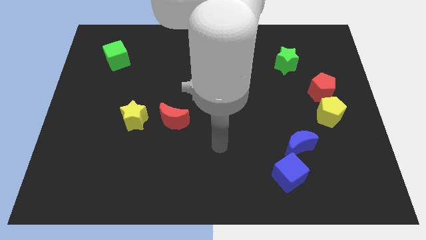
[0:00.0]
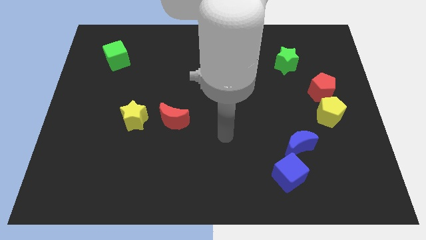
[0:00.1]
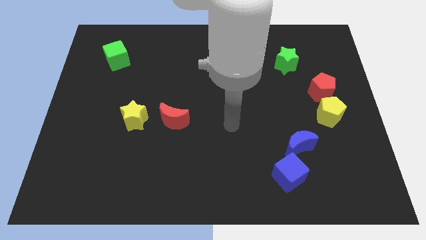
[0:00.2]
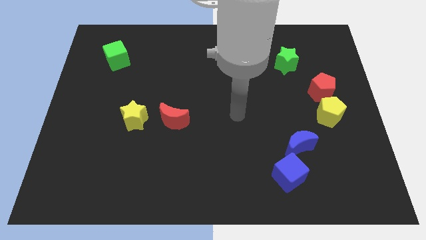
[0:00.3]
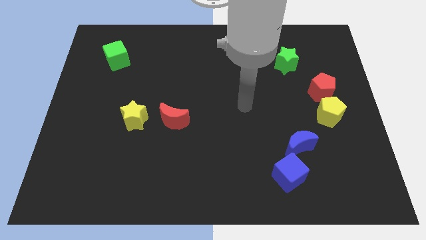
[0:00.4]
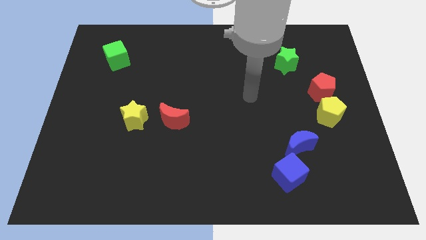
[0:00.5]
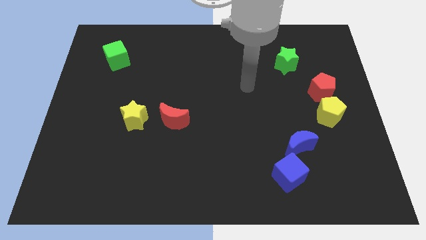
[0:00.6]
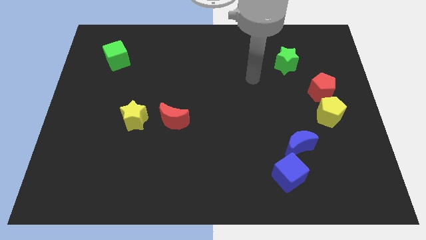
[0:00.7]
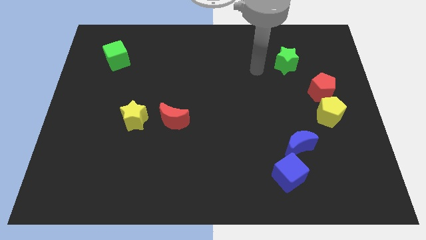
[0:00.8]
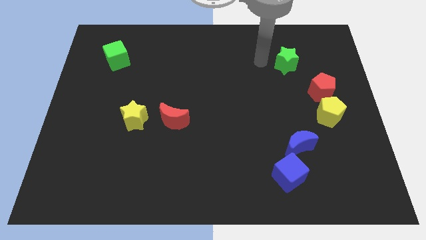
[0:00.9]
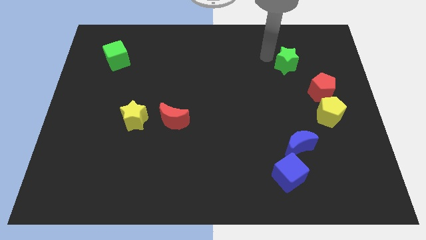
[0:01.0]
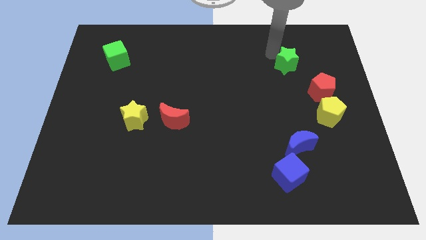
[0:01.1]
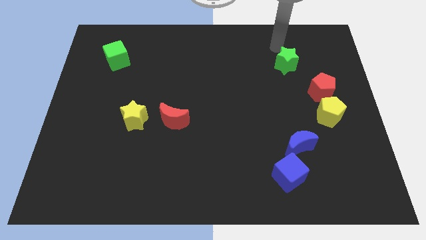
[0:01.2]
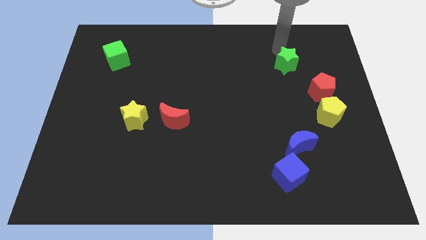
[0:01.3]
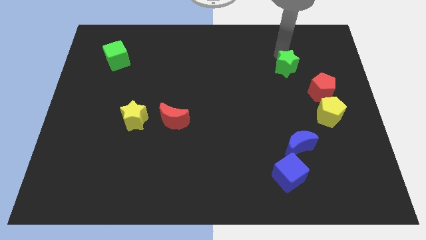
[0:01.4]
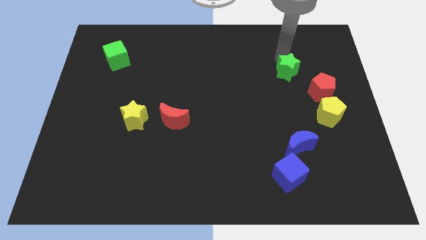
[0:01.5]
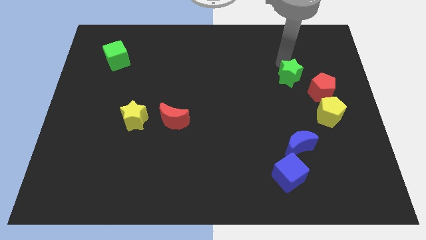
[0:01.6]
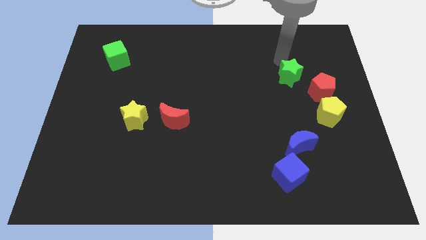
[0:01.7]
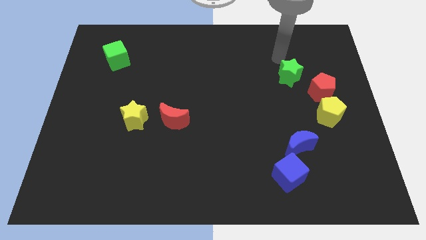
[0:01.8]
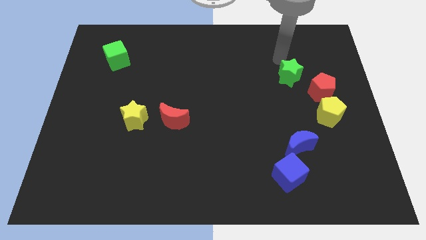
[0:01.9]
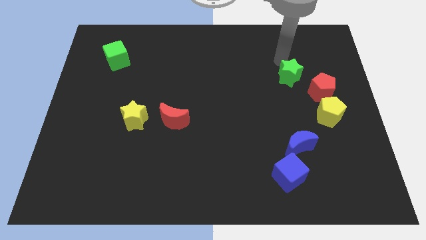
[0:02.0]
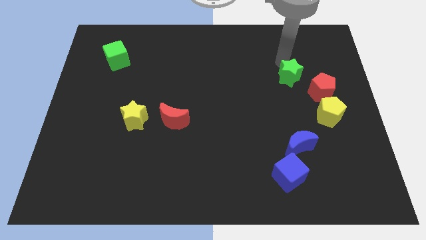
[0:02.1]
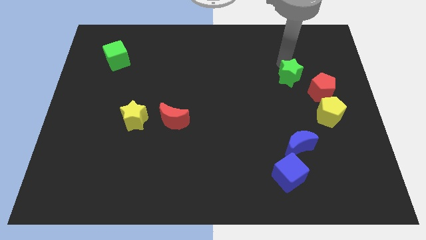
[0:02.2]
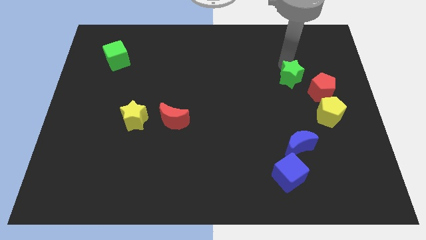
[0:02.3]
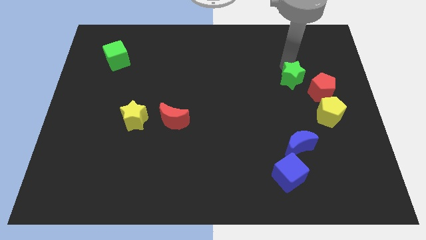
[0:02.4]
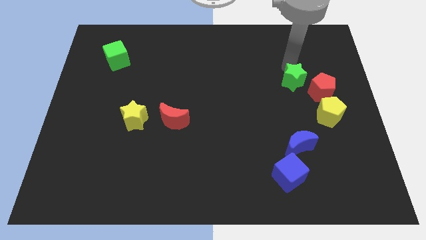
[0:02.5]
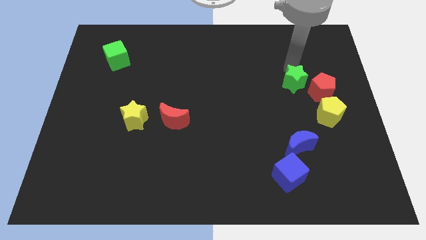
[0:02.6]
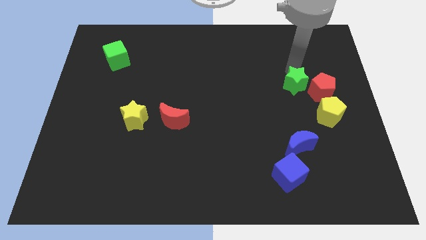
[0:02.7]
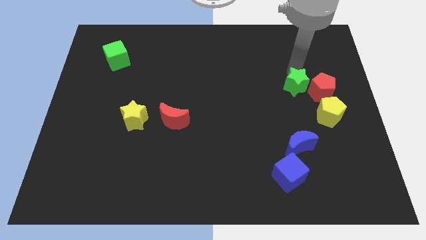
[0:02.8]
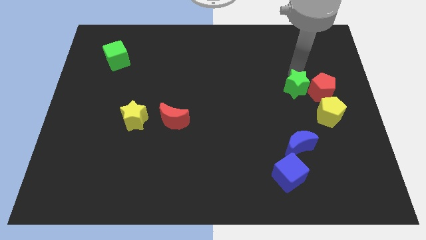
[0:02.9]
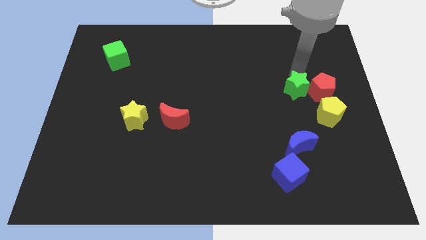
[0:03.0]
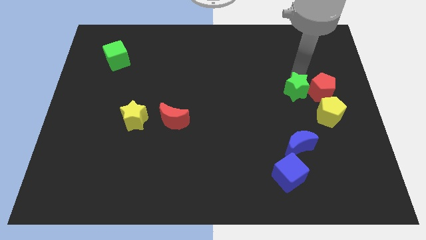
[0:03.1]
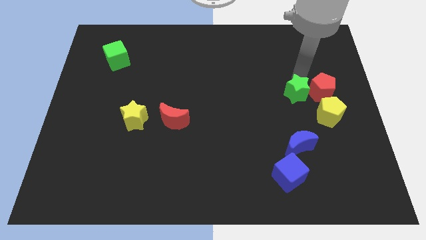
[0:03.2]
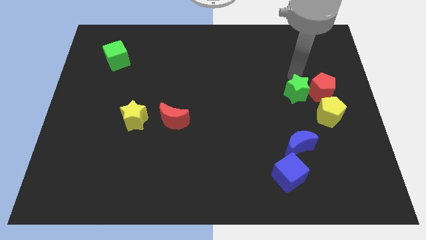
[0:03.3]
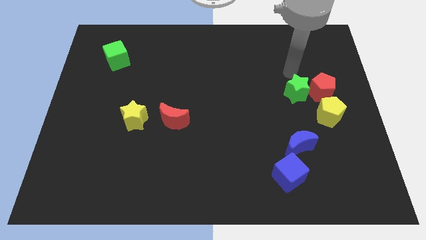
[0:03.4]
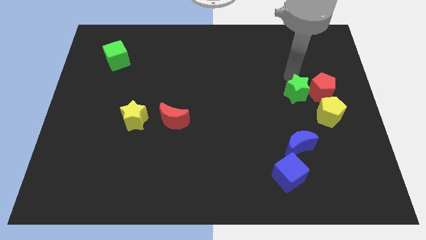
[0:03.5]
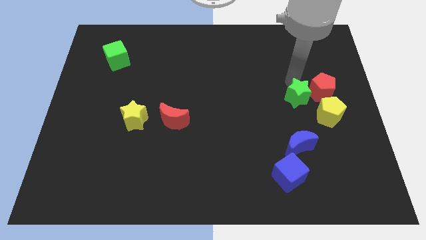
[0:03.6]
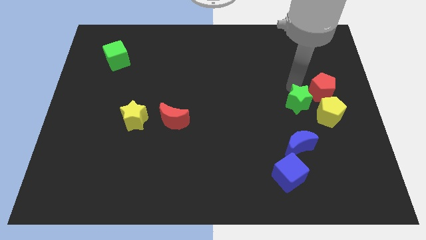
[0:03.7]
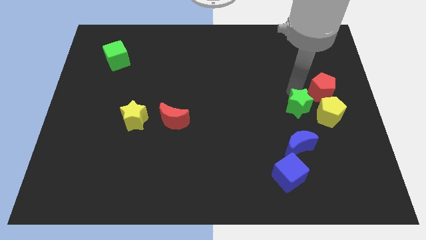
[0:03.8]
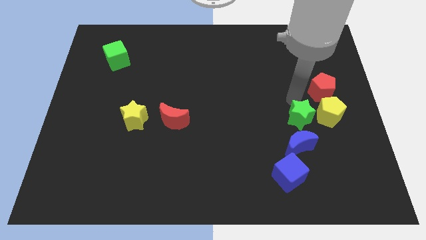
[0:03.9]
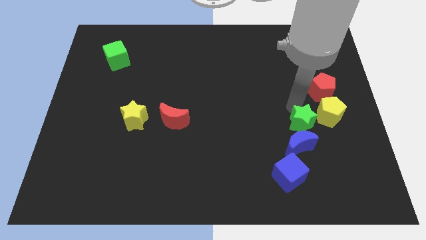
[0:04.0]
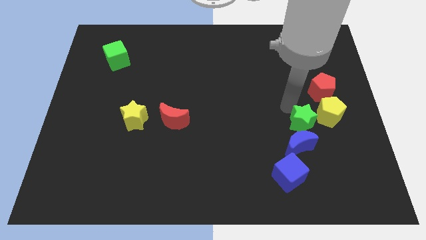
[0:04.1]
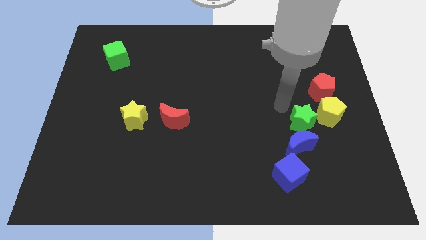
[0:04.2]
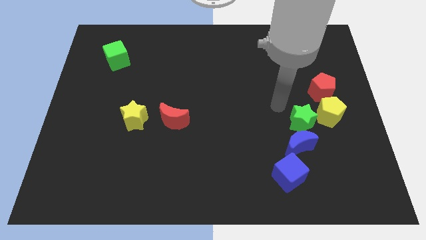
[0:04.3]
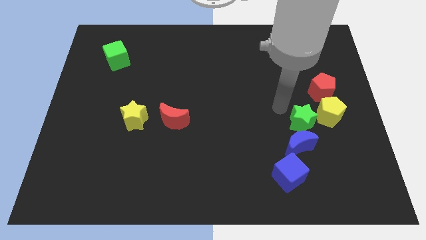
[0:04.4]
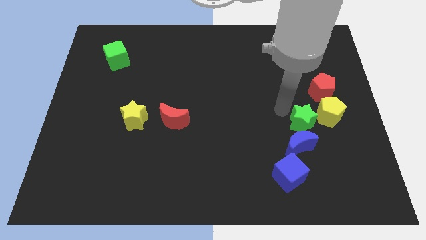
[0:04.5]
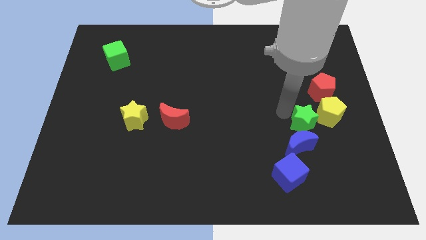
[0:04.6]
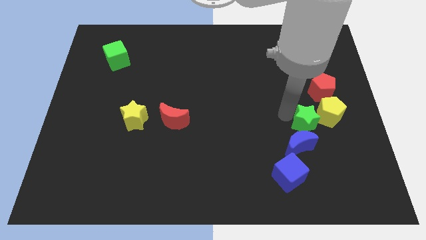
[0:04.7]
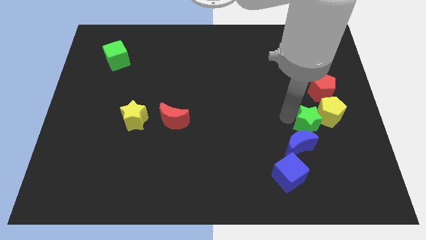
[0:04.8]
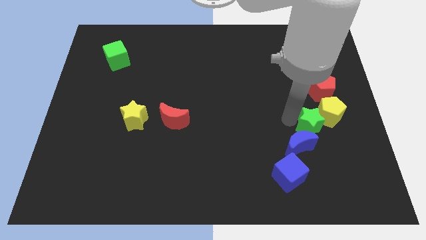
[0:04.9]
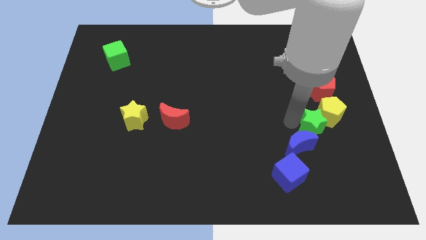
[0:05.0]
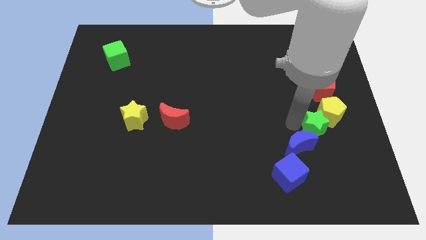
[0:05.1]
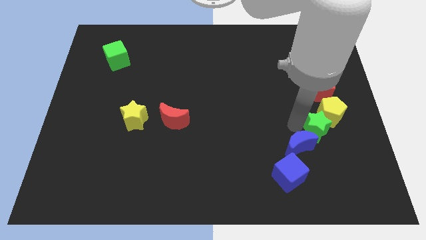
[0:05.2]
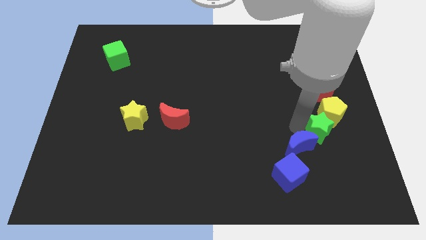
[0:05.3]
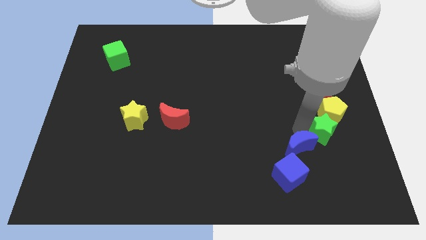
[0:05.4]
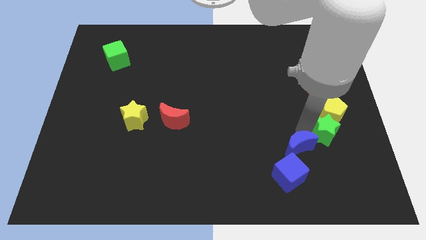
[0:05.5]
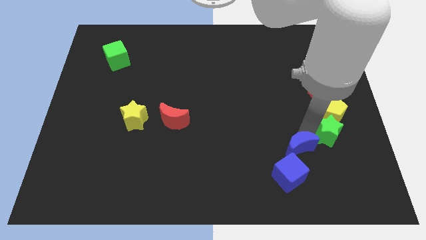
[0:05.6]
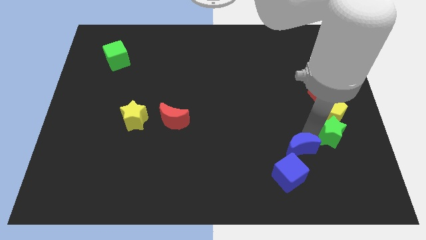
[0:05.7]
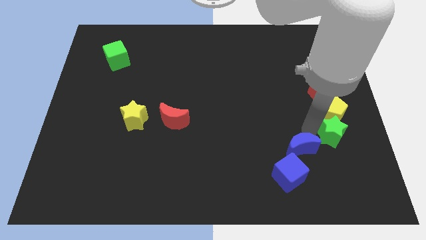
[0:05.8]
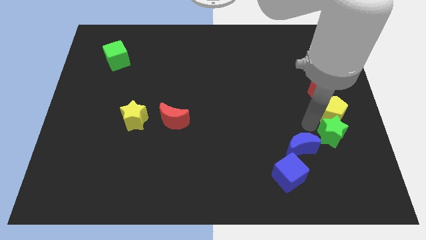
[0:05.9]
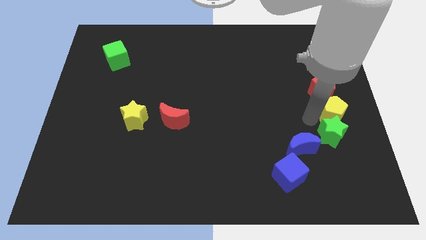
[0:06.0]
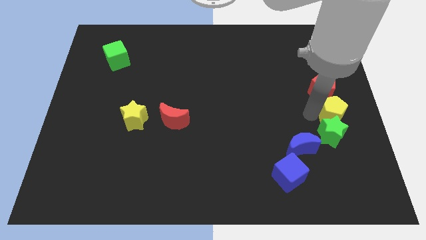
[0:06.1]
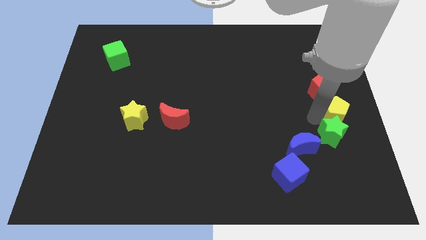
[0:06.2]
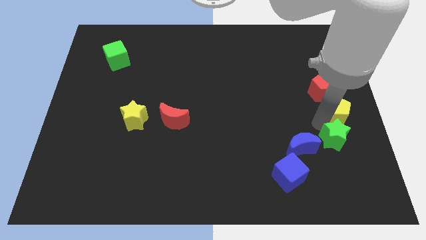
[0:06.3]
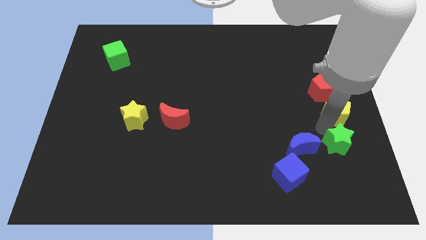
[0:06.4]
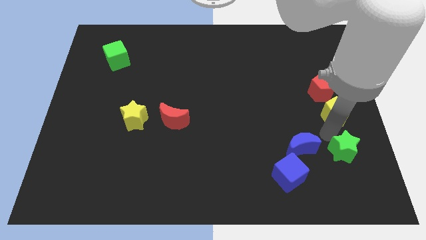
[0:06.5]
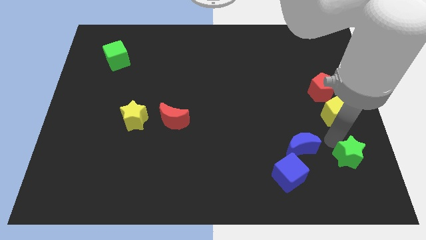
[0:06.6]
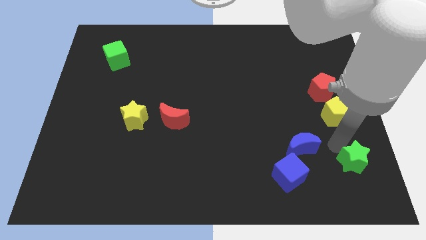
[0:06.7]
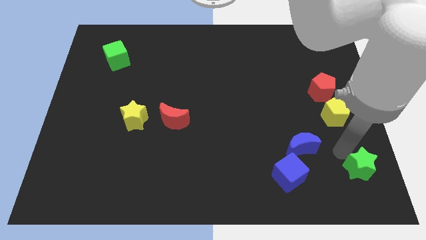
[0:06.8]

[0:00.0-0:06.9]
slide the green star to the bottom right corner
